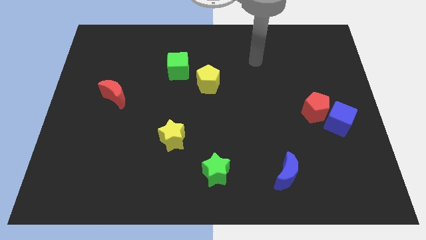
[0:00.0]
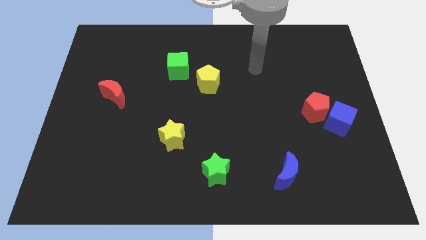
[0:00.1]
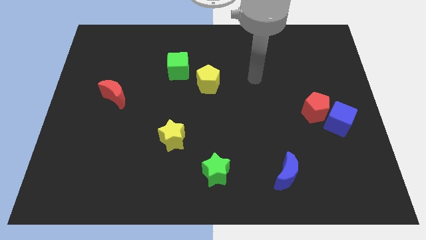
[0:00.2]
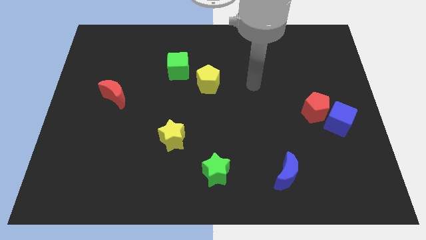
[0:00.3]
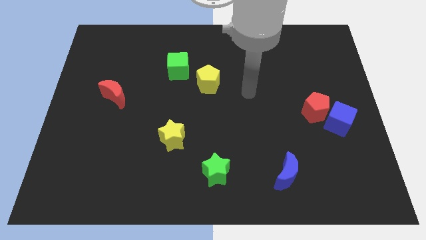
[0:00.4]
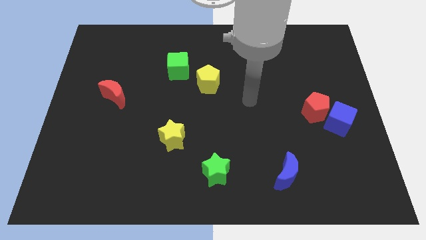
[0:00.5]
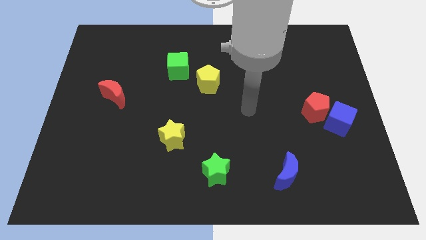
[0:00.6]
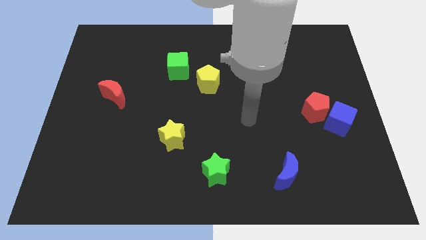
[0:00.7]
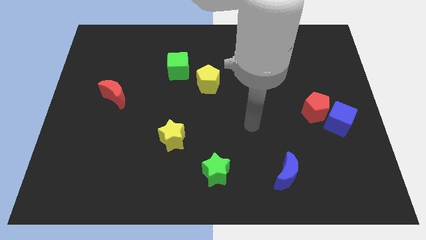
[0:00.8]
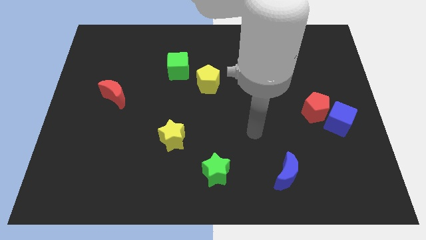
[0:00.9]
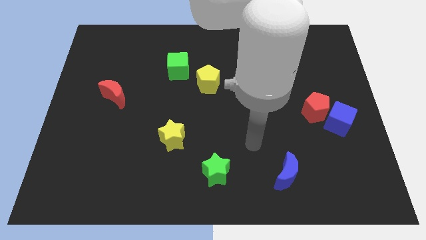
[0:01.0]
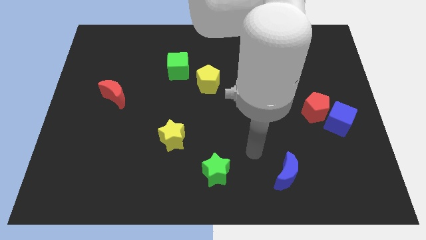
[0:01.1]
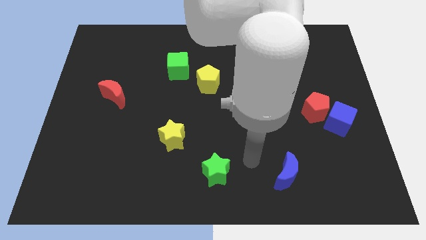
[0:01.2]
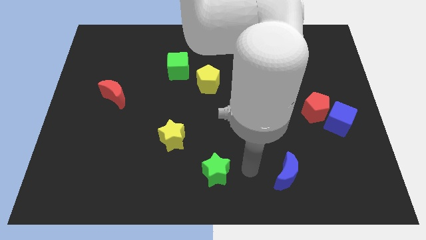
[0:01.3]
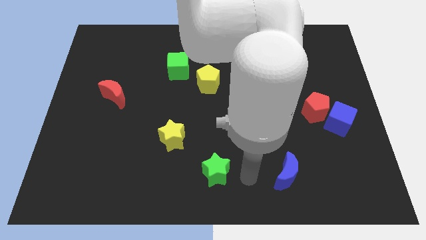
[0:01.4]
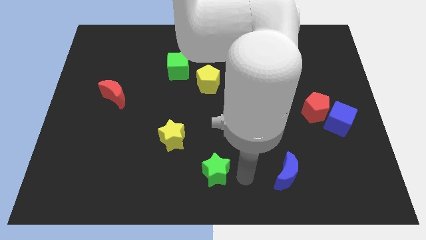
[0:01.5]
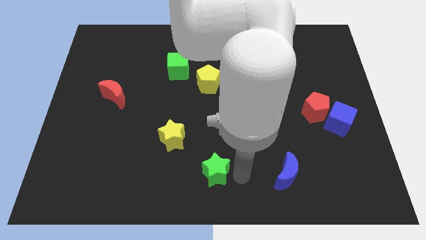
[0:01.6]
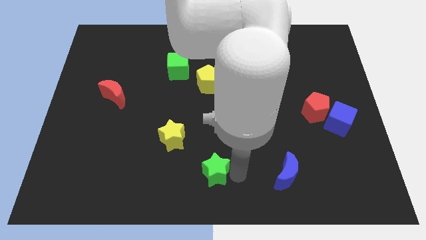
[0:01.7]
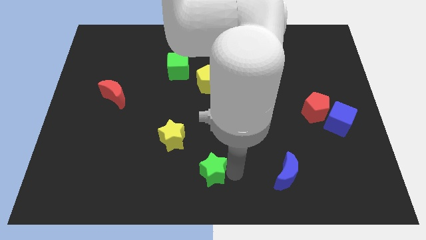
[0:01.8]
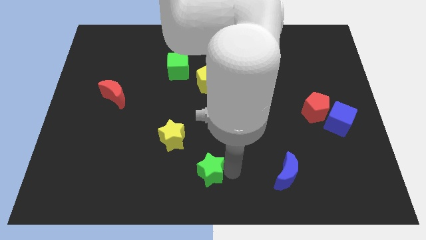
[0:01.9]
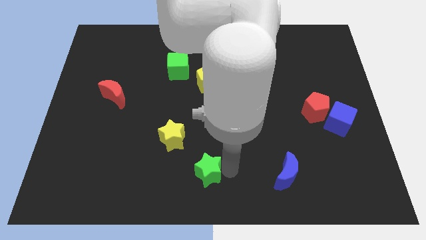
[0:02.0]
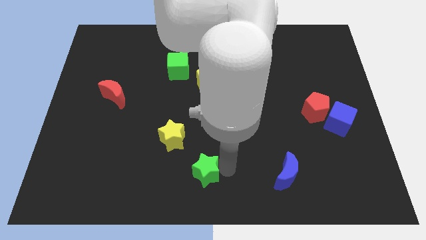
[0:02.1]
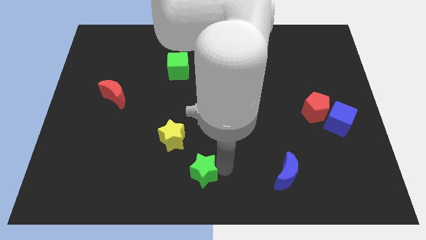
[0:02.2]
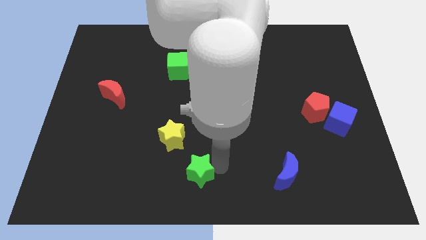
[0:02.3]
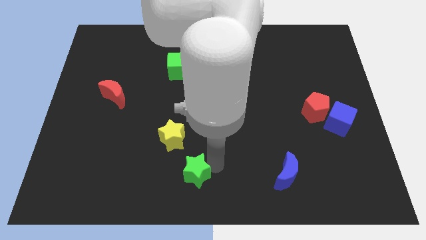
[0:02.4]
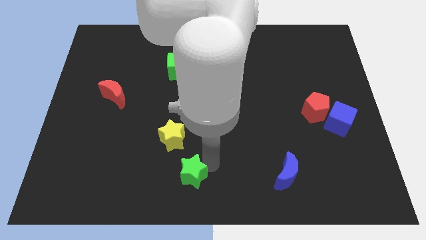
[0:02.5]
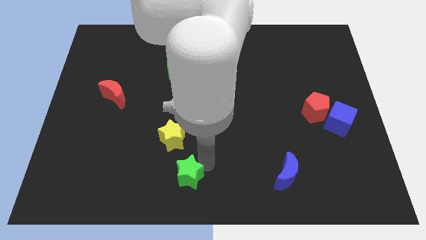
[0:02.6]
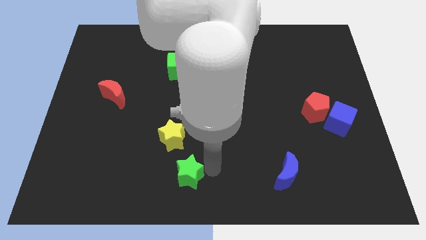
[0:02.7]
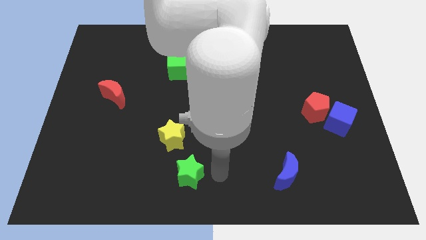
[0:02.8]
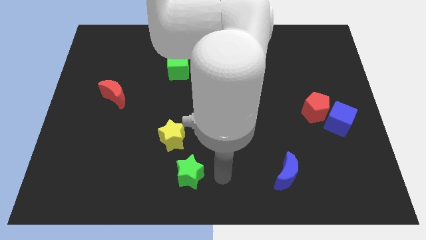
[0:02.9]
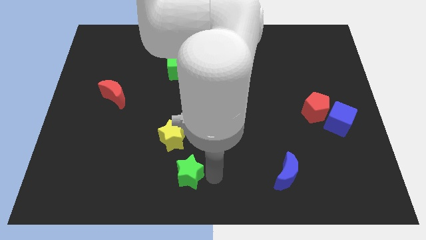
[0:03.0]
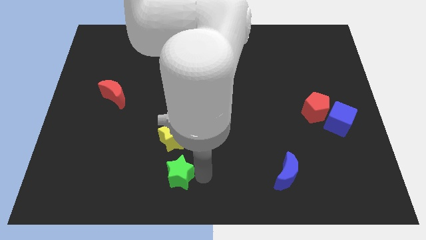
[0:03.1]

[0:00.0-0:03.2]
push the green star slightly to the left

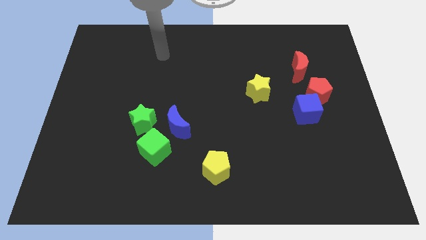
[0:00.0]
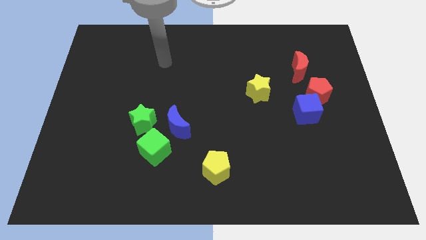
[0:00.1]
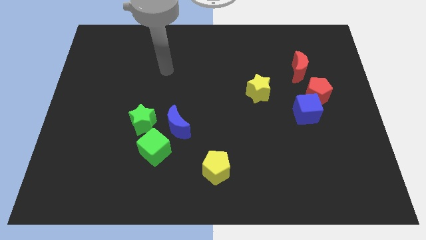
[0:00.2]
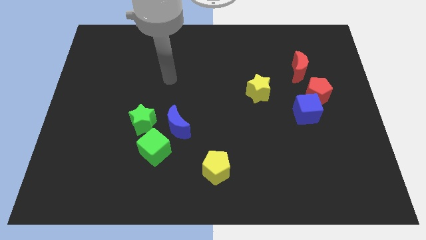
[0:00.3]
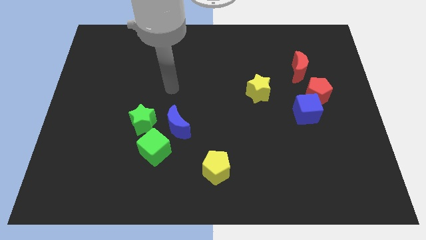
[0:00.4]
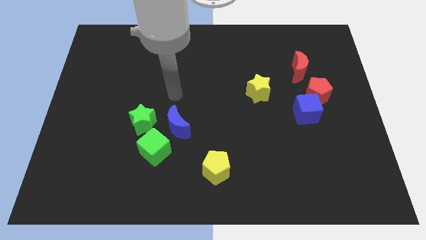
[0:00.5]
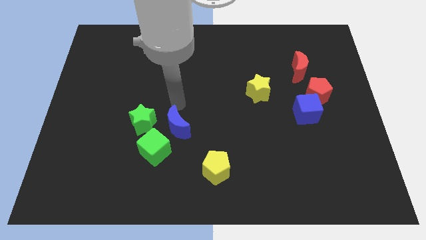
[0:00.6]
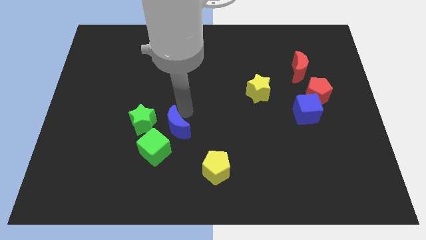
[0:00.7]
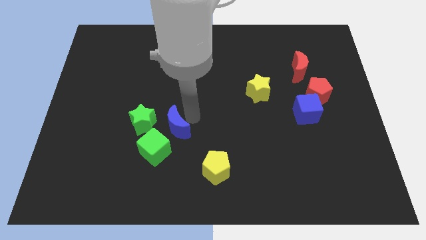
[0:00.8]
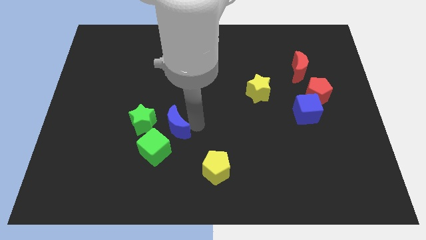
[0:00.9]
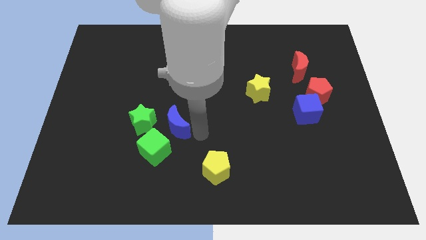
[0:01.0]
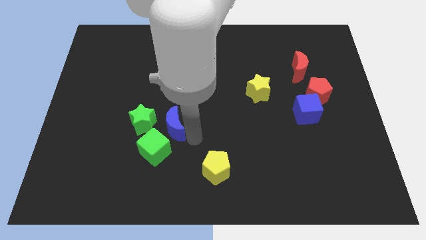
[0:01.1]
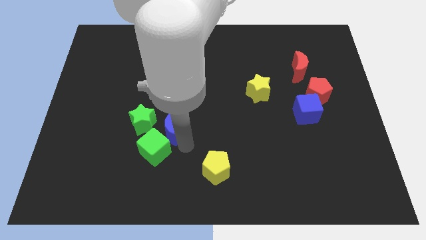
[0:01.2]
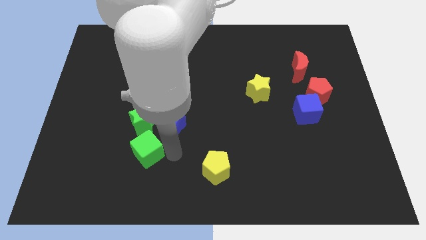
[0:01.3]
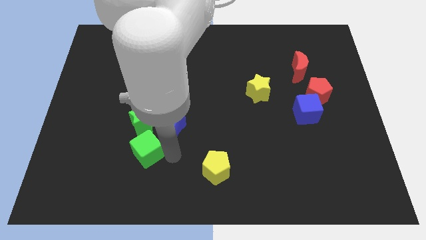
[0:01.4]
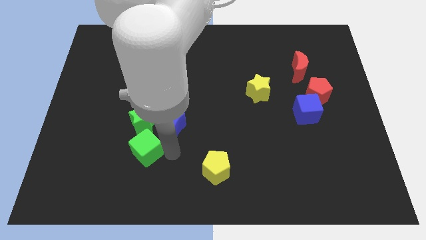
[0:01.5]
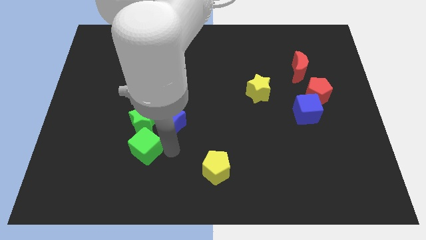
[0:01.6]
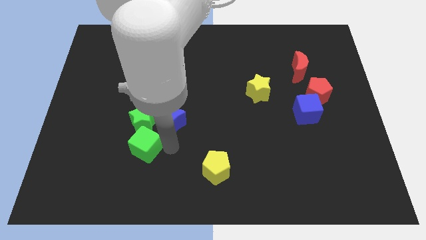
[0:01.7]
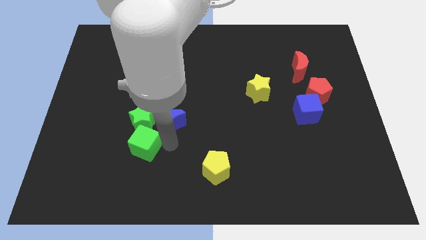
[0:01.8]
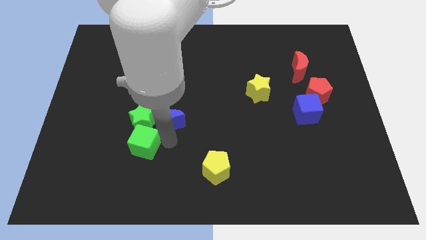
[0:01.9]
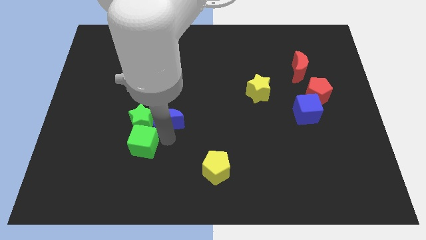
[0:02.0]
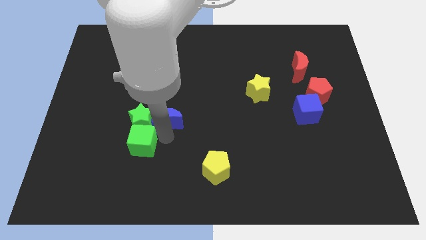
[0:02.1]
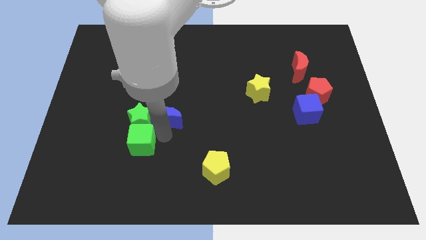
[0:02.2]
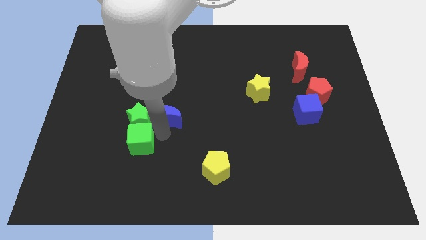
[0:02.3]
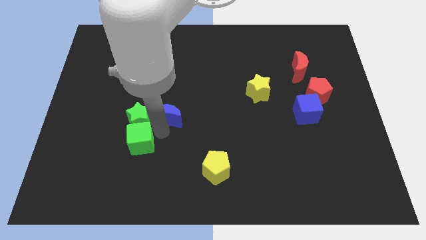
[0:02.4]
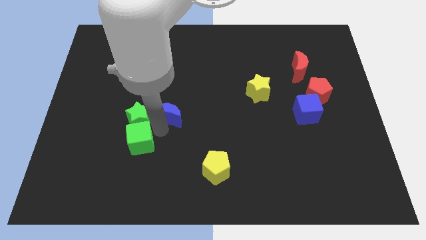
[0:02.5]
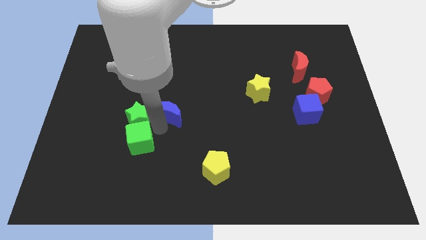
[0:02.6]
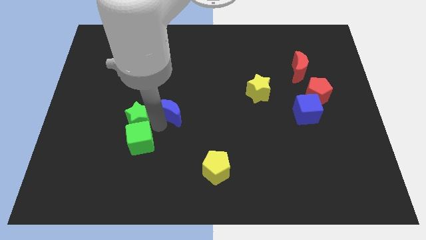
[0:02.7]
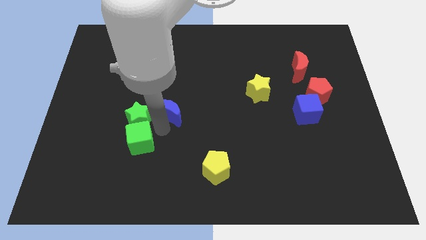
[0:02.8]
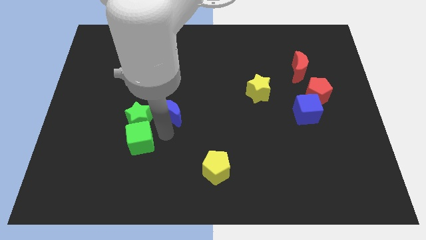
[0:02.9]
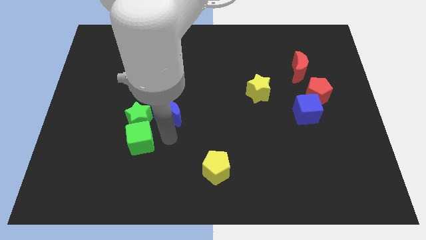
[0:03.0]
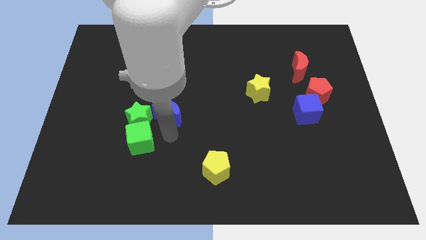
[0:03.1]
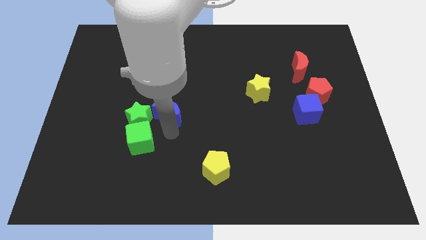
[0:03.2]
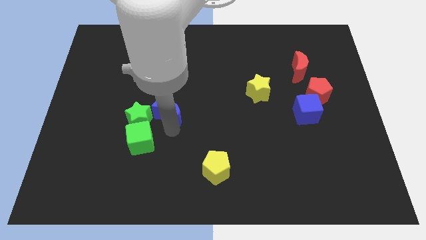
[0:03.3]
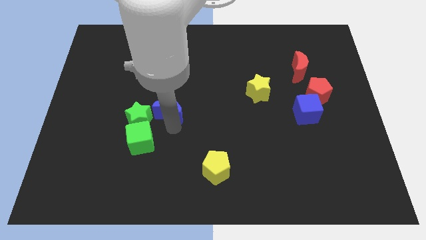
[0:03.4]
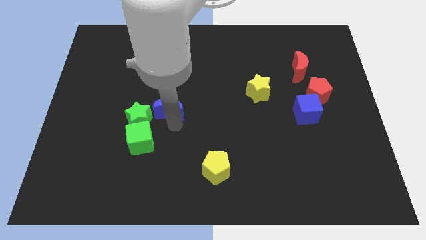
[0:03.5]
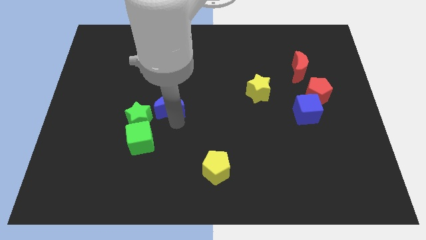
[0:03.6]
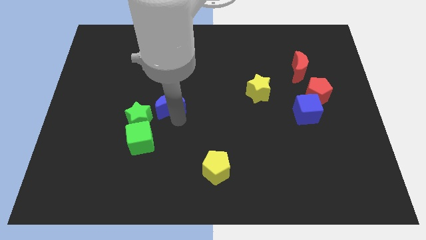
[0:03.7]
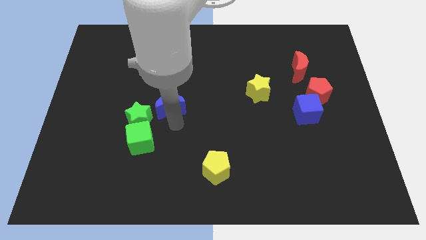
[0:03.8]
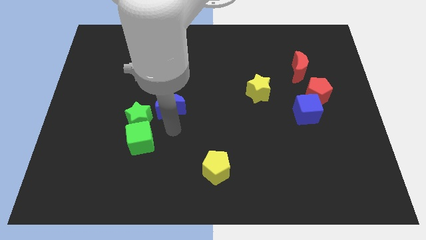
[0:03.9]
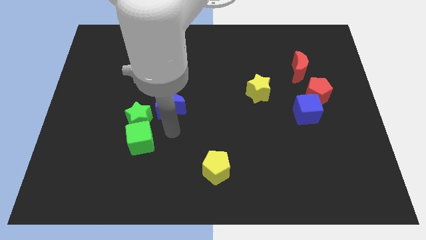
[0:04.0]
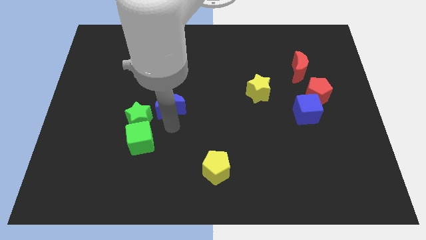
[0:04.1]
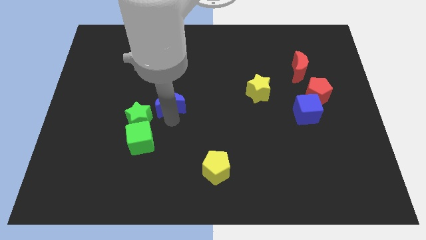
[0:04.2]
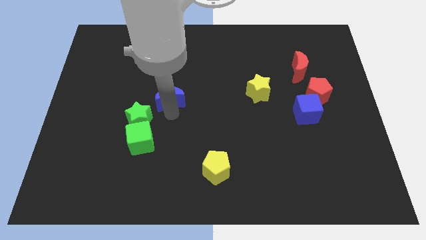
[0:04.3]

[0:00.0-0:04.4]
slightly move the blue moon up

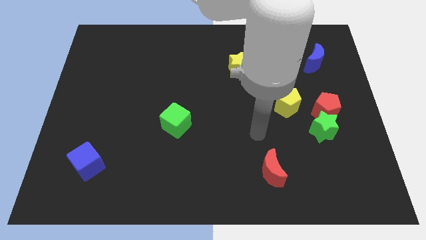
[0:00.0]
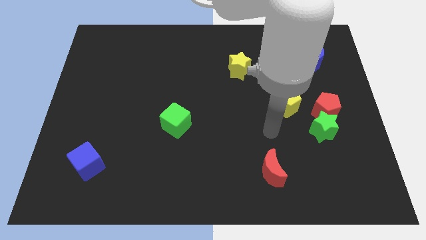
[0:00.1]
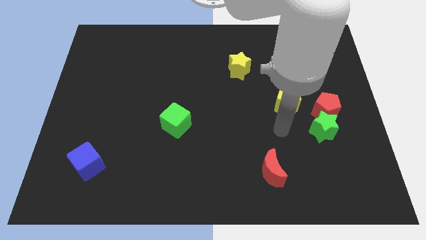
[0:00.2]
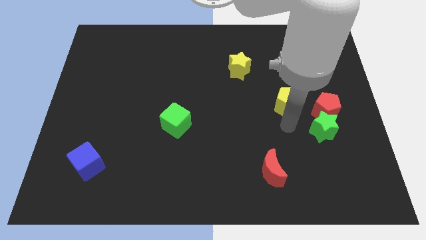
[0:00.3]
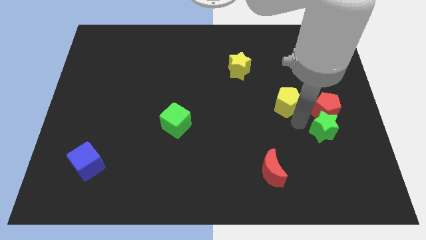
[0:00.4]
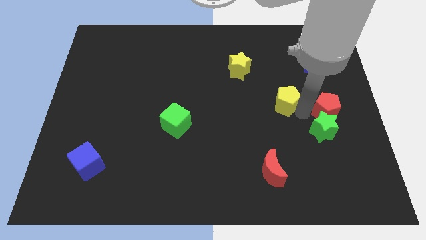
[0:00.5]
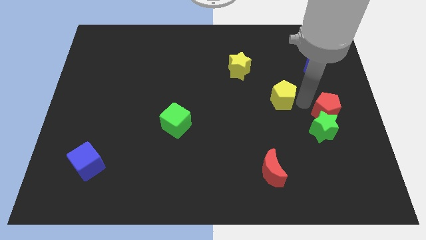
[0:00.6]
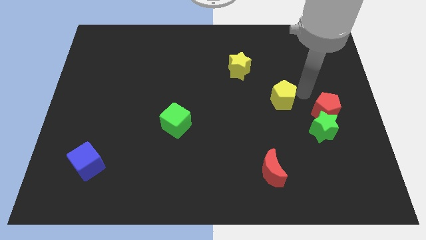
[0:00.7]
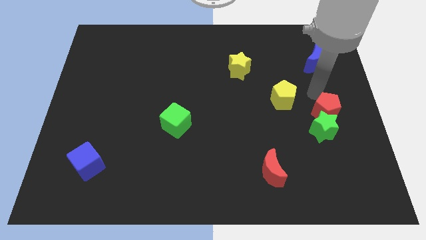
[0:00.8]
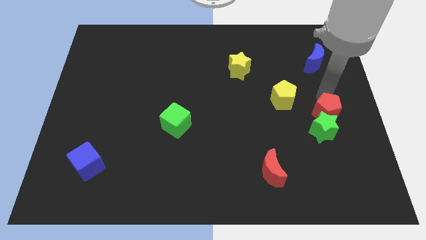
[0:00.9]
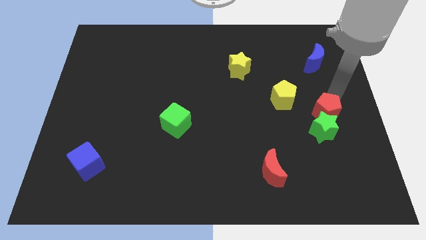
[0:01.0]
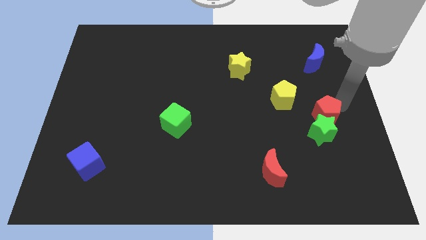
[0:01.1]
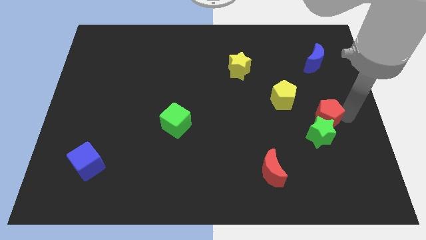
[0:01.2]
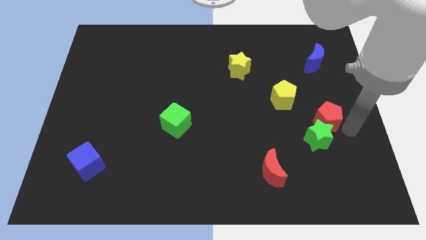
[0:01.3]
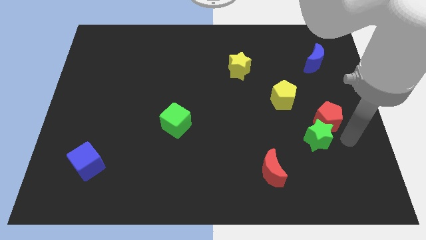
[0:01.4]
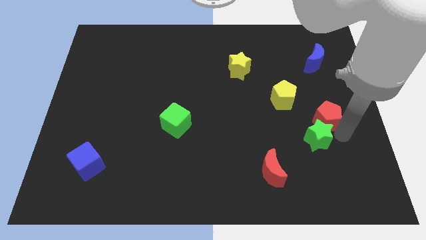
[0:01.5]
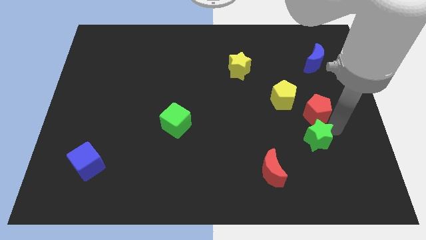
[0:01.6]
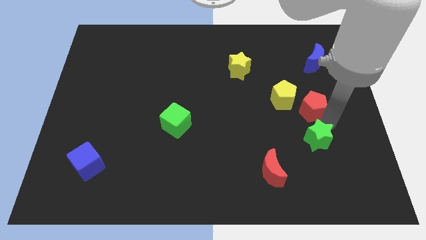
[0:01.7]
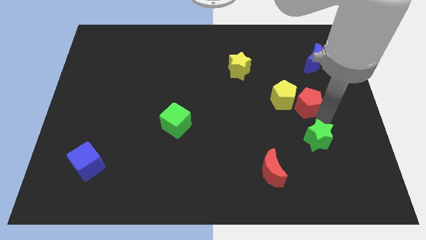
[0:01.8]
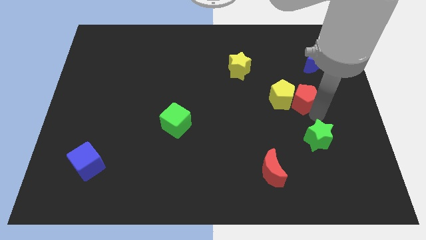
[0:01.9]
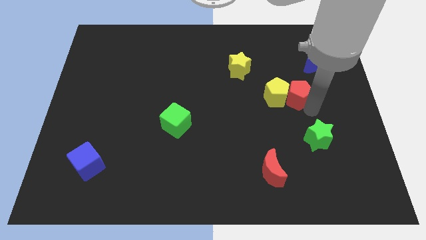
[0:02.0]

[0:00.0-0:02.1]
slightly push the red pentagon up and to the left diagonally
